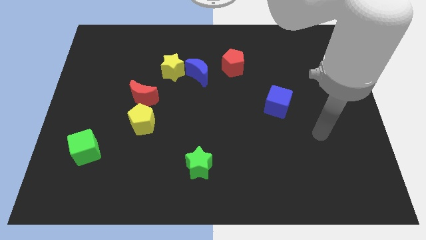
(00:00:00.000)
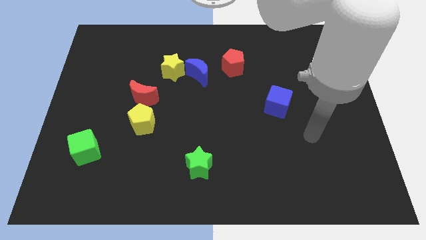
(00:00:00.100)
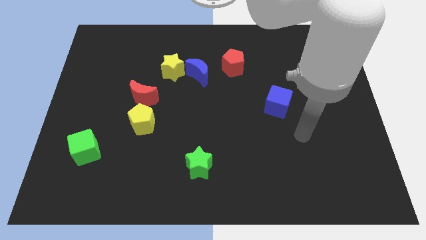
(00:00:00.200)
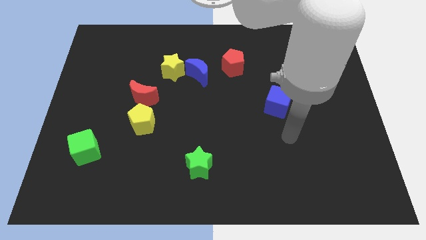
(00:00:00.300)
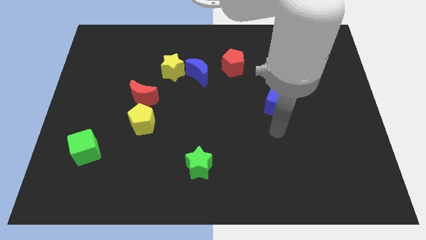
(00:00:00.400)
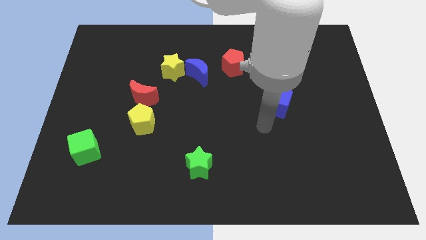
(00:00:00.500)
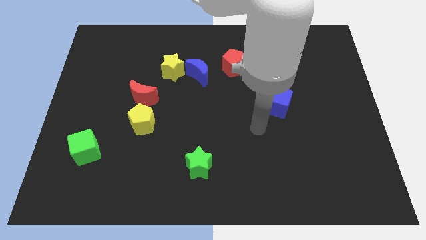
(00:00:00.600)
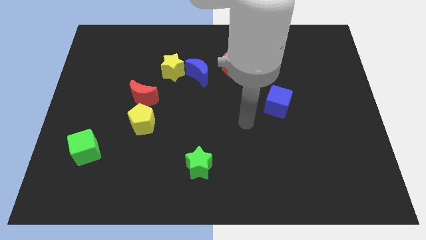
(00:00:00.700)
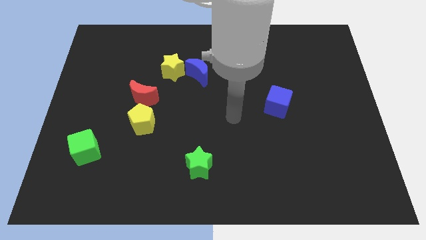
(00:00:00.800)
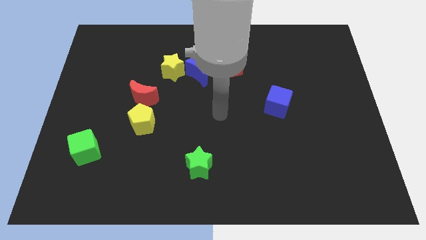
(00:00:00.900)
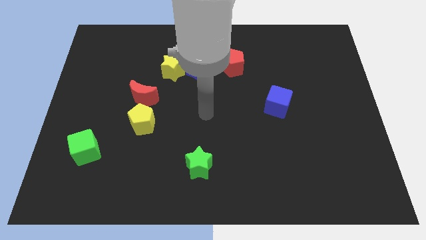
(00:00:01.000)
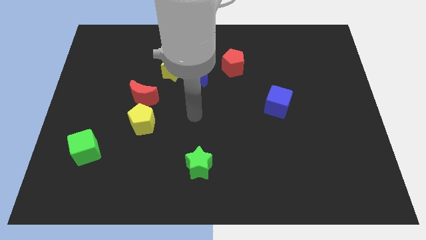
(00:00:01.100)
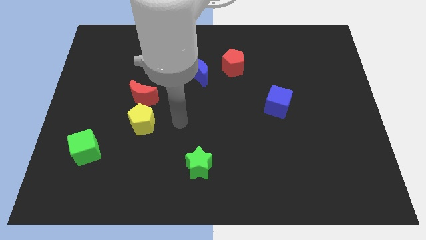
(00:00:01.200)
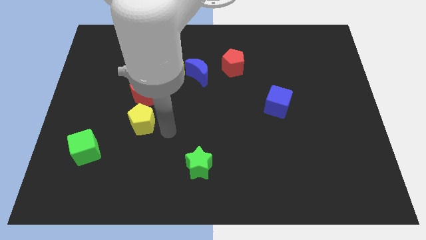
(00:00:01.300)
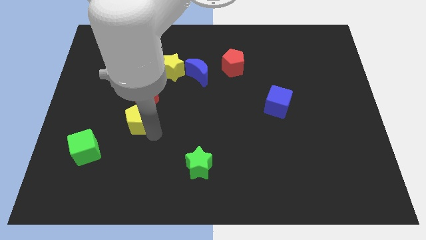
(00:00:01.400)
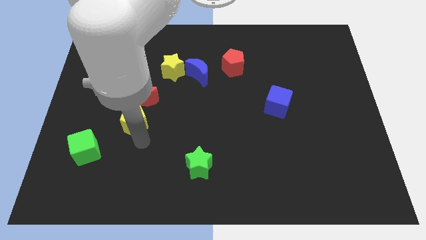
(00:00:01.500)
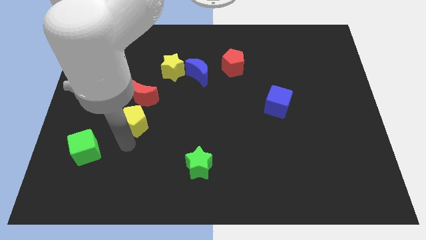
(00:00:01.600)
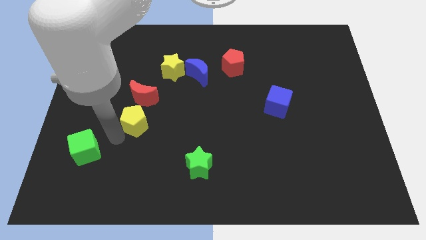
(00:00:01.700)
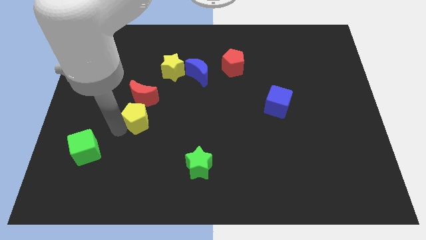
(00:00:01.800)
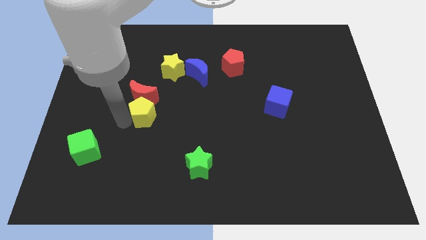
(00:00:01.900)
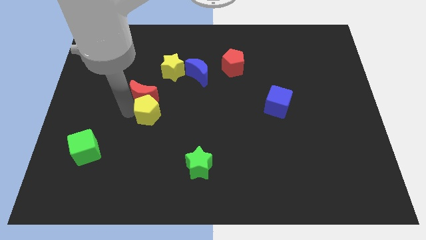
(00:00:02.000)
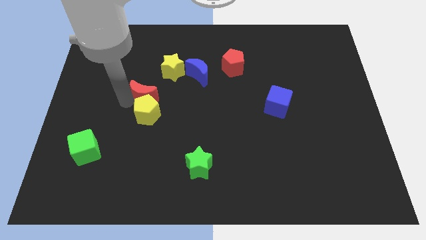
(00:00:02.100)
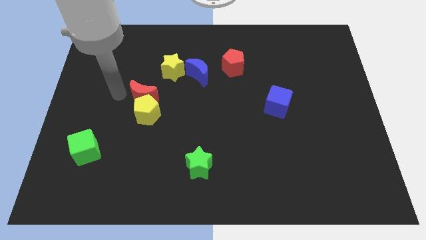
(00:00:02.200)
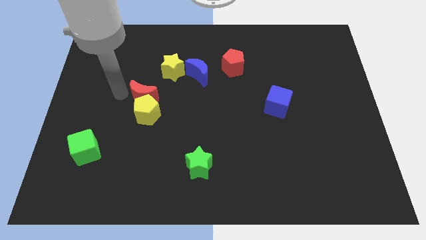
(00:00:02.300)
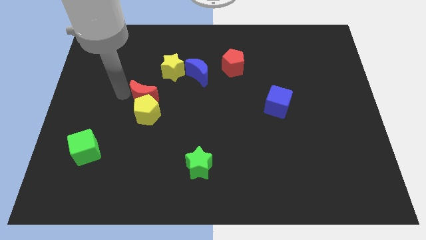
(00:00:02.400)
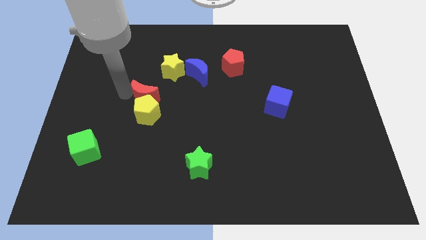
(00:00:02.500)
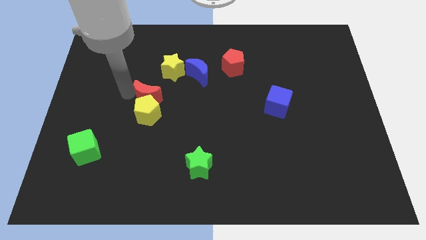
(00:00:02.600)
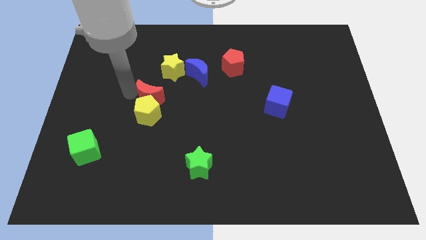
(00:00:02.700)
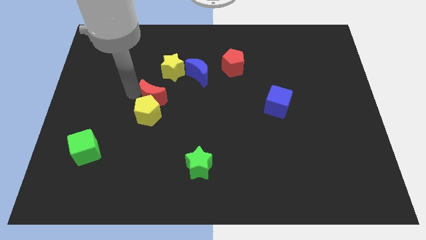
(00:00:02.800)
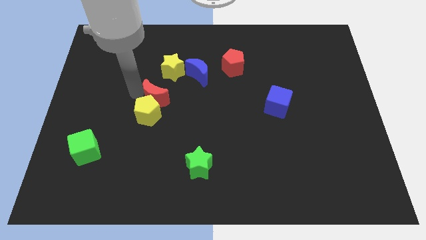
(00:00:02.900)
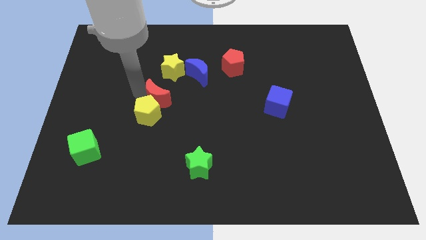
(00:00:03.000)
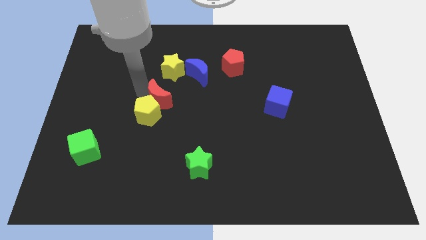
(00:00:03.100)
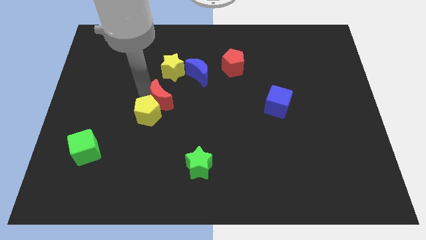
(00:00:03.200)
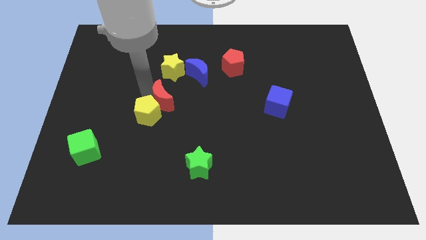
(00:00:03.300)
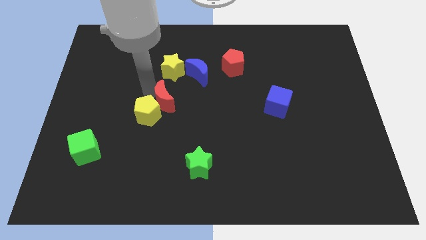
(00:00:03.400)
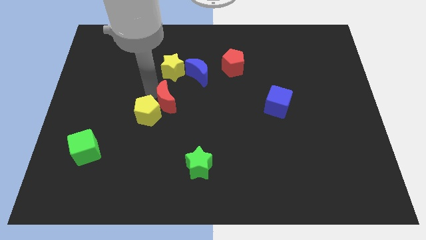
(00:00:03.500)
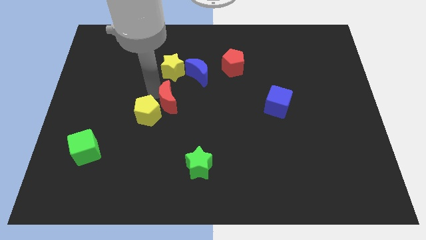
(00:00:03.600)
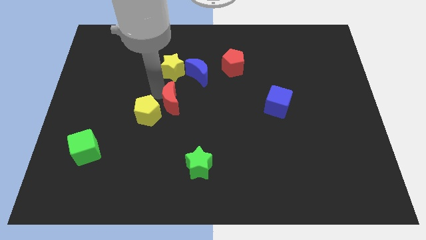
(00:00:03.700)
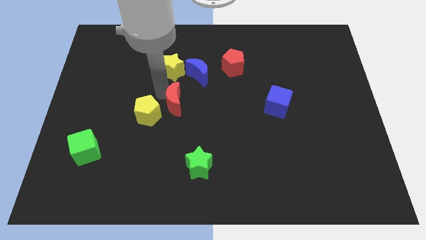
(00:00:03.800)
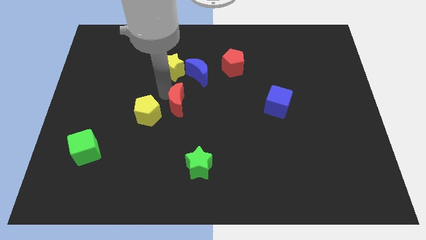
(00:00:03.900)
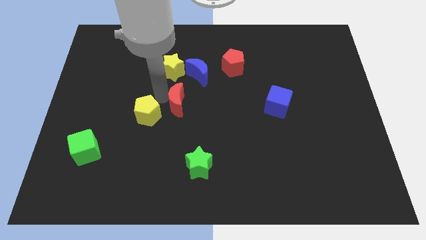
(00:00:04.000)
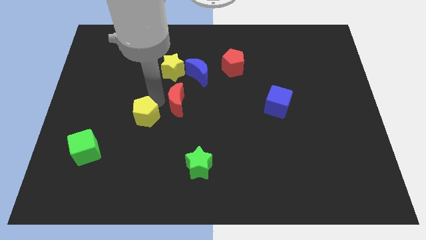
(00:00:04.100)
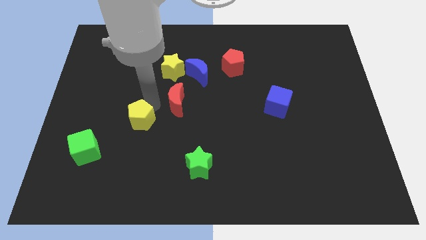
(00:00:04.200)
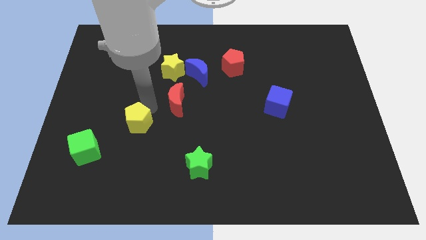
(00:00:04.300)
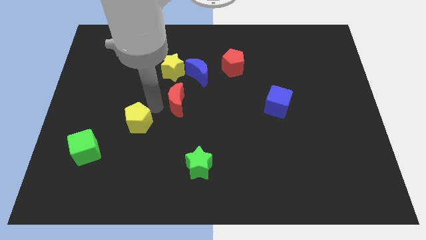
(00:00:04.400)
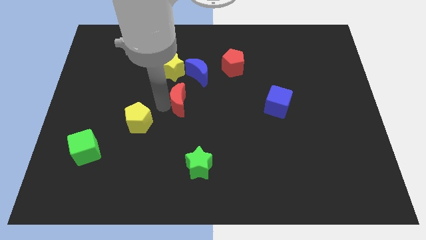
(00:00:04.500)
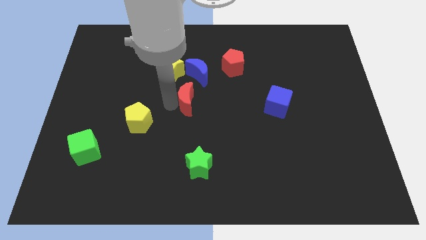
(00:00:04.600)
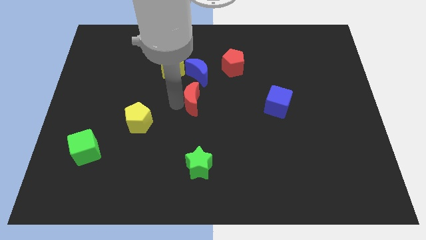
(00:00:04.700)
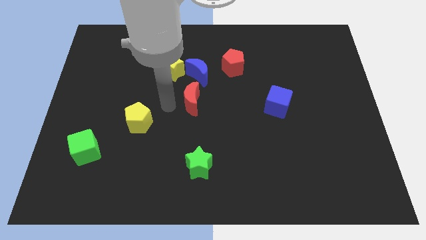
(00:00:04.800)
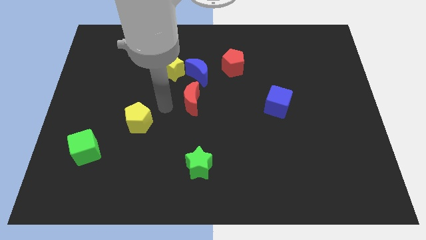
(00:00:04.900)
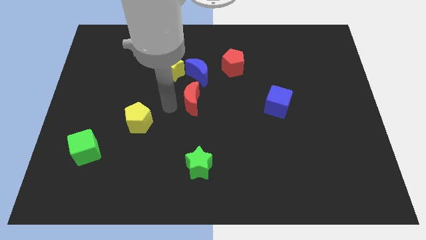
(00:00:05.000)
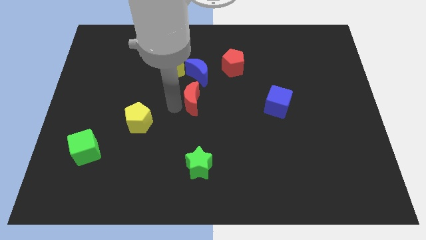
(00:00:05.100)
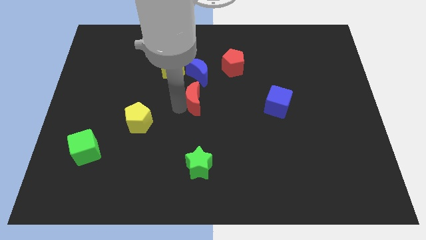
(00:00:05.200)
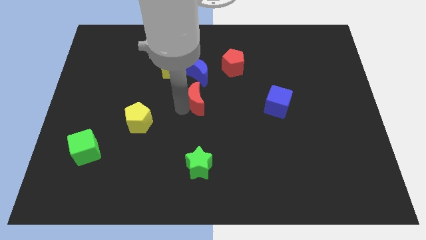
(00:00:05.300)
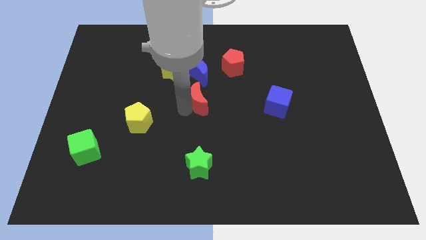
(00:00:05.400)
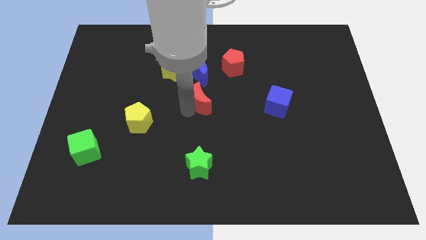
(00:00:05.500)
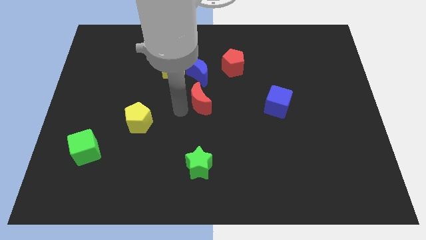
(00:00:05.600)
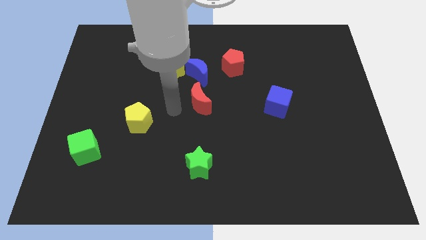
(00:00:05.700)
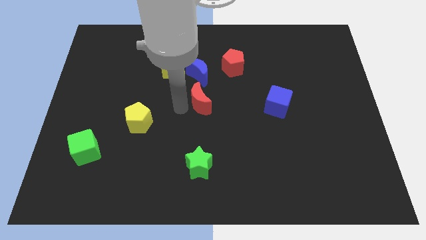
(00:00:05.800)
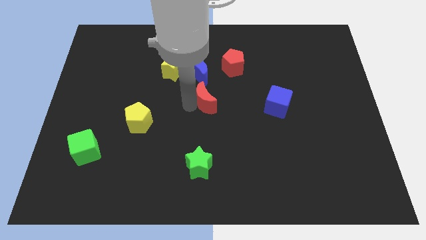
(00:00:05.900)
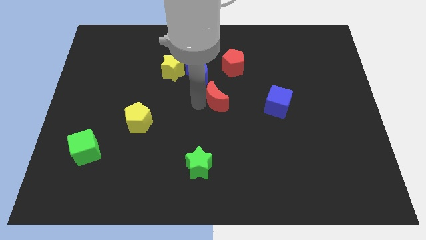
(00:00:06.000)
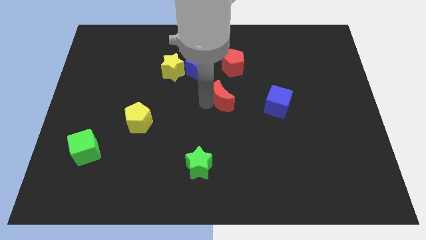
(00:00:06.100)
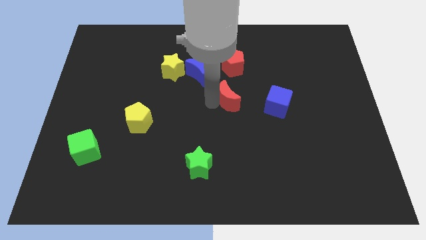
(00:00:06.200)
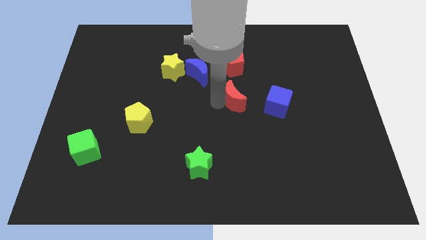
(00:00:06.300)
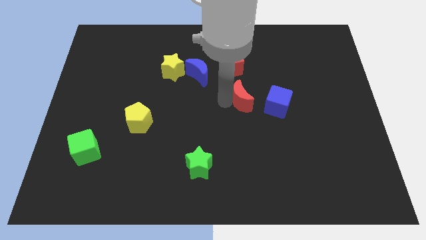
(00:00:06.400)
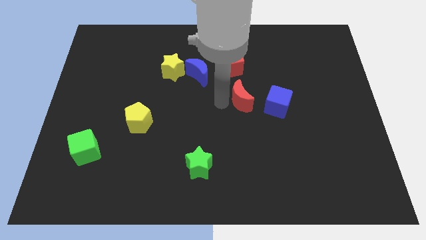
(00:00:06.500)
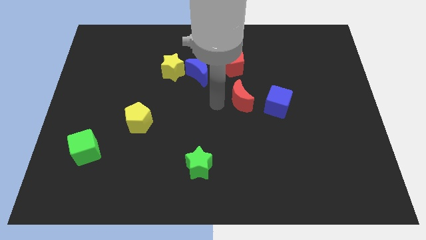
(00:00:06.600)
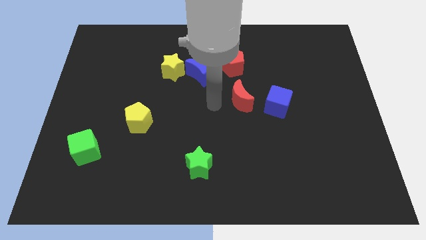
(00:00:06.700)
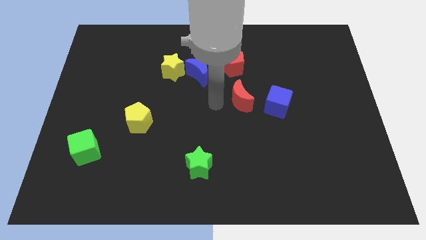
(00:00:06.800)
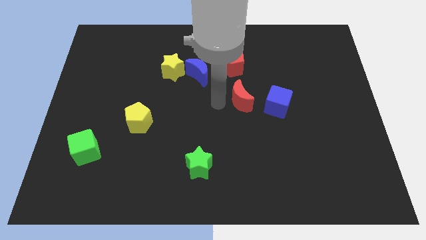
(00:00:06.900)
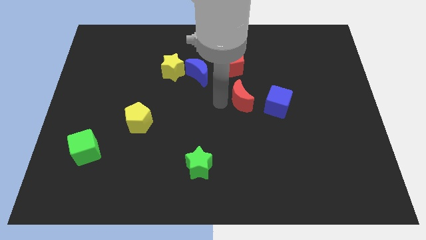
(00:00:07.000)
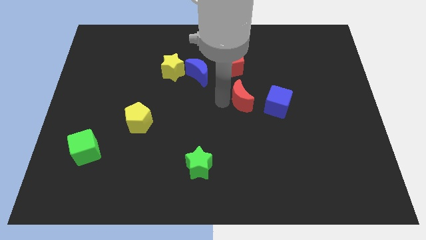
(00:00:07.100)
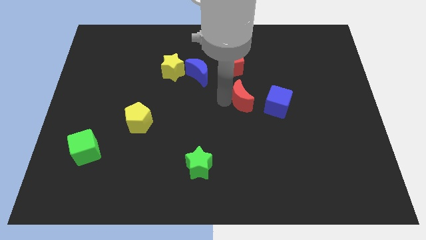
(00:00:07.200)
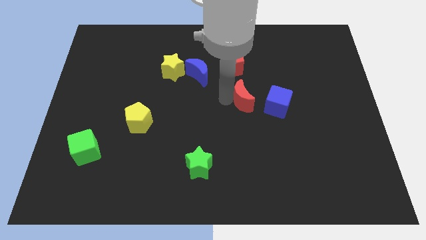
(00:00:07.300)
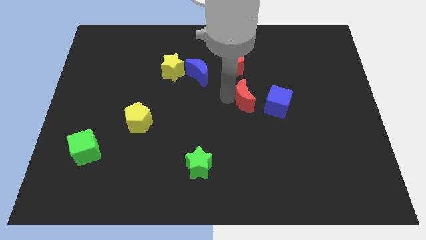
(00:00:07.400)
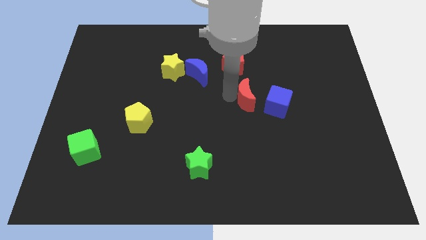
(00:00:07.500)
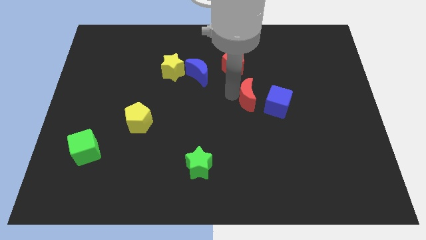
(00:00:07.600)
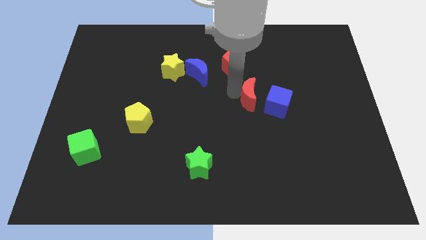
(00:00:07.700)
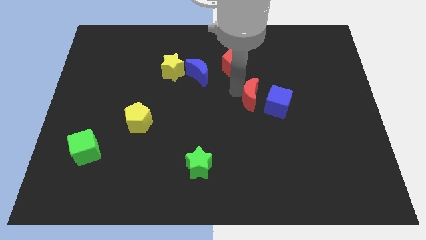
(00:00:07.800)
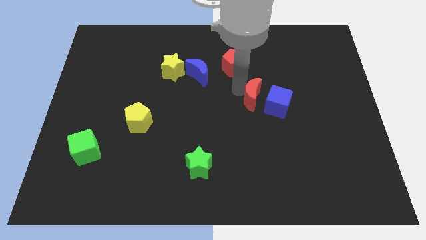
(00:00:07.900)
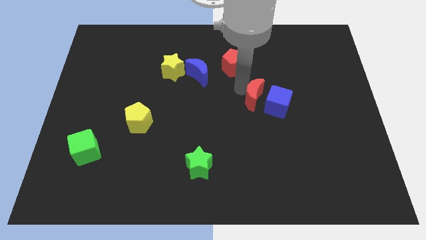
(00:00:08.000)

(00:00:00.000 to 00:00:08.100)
slide the red moon towards the blue cube
